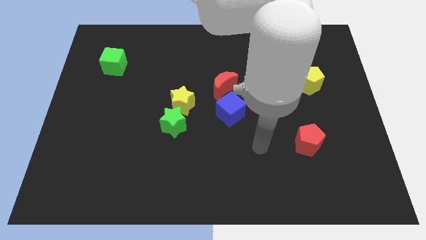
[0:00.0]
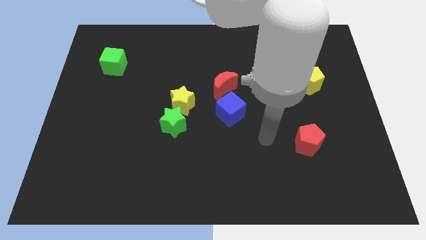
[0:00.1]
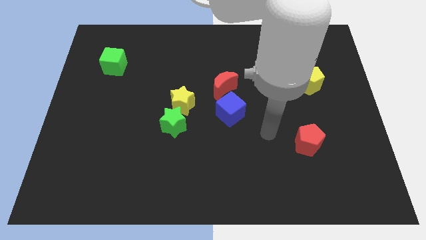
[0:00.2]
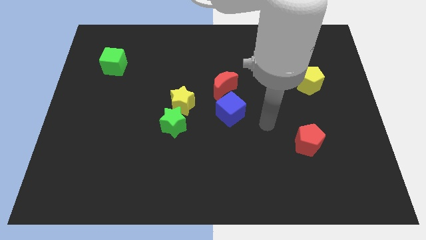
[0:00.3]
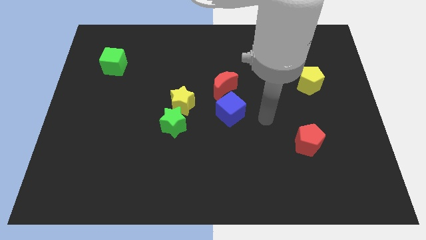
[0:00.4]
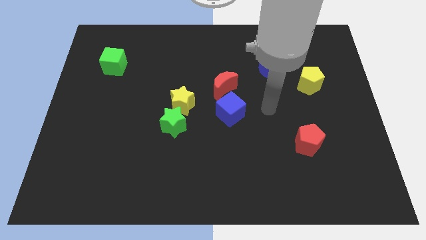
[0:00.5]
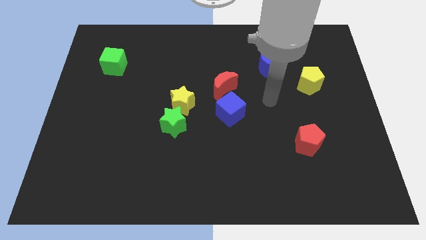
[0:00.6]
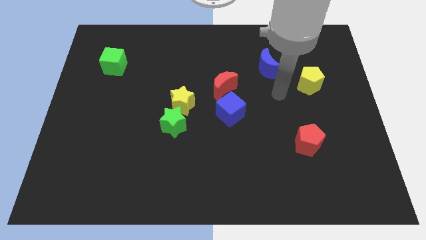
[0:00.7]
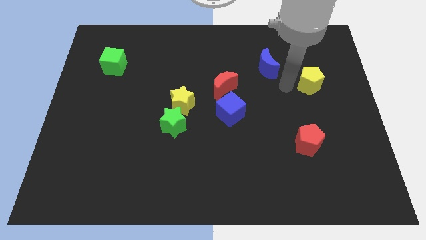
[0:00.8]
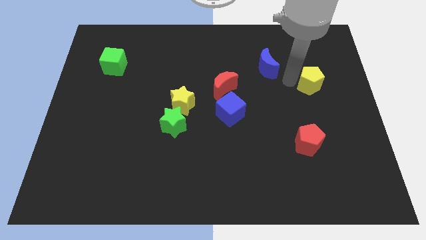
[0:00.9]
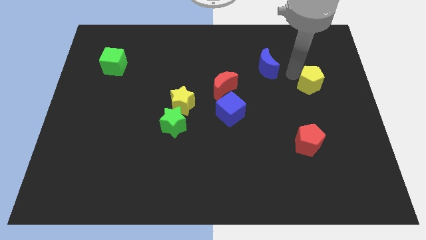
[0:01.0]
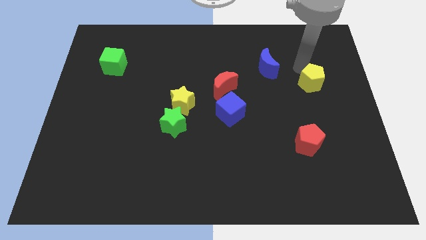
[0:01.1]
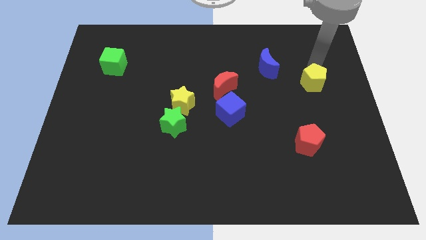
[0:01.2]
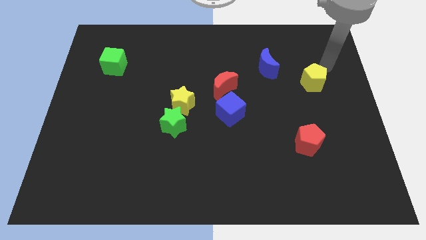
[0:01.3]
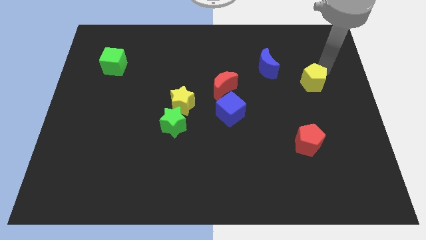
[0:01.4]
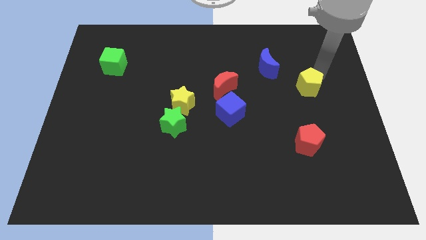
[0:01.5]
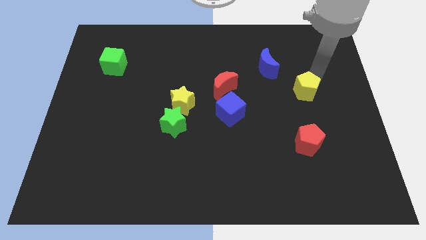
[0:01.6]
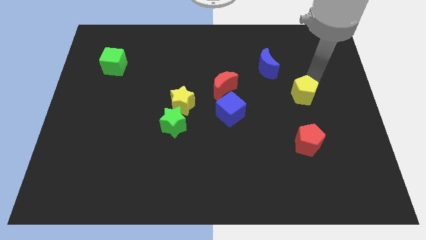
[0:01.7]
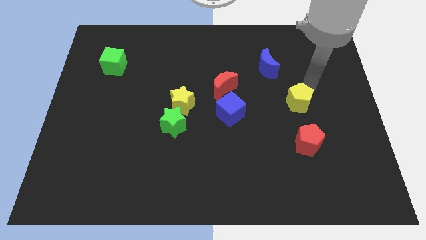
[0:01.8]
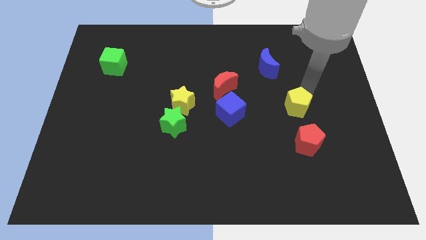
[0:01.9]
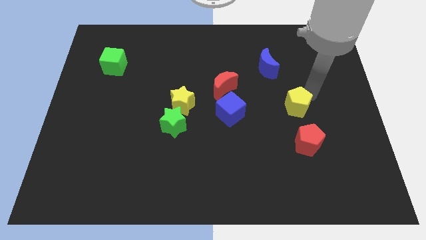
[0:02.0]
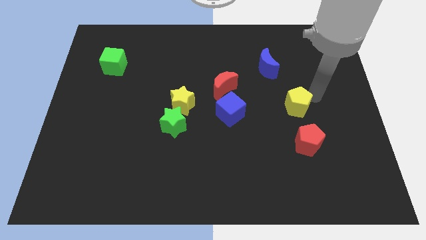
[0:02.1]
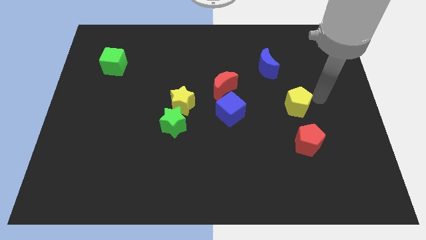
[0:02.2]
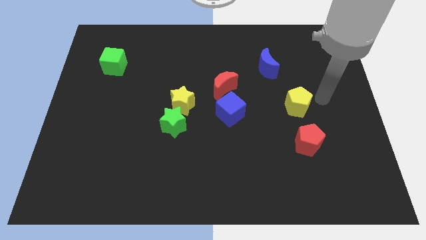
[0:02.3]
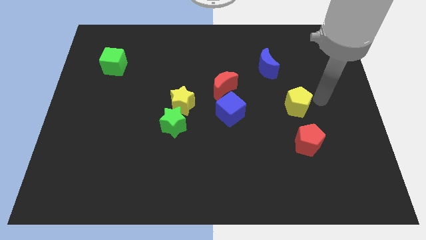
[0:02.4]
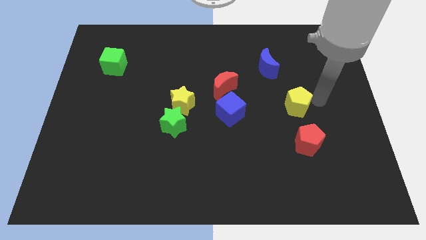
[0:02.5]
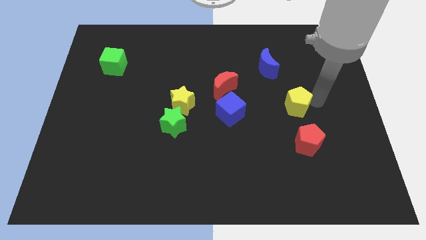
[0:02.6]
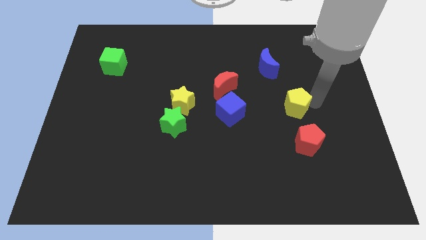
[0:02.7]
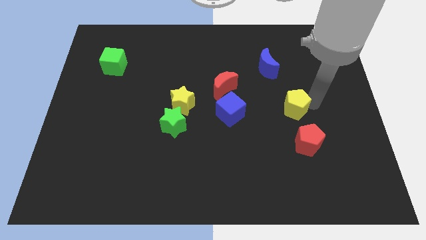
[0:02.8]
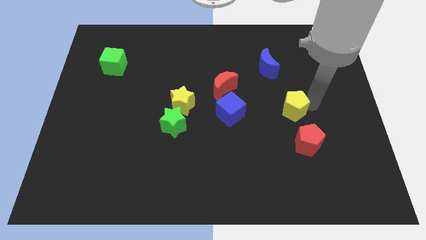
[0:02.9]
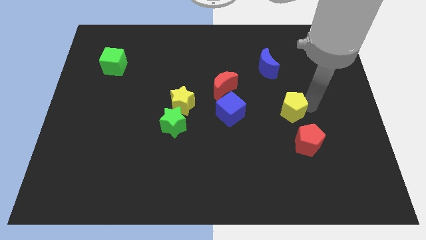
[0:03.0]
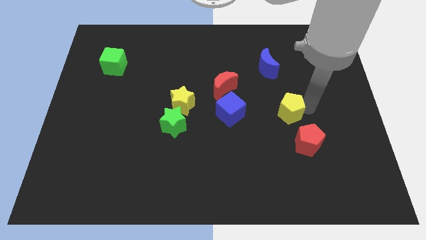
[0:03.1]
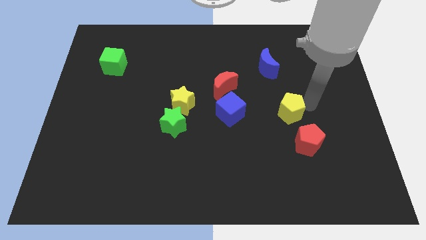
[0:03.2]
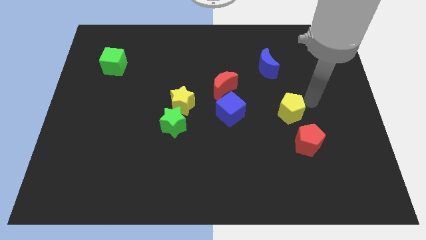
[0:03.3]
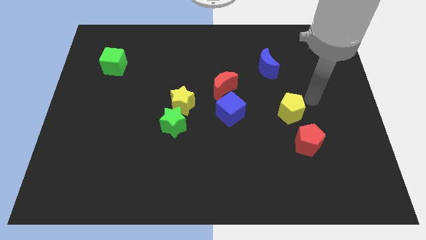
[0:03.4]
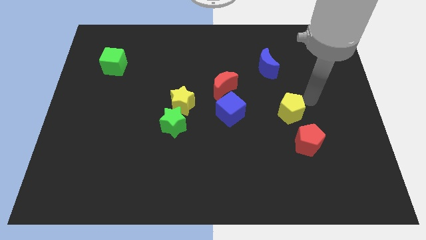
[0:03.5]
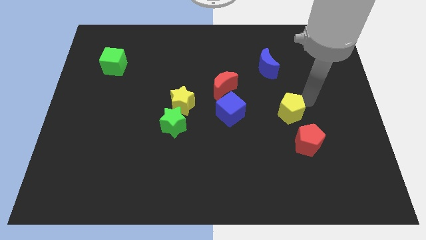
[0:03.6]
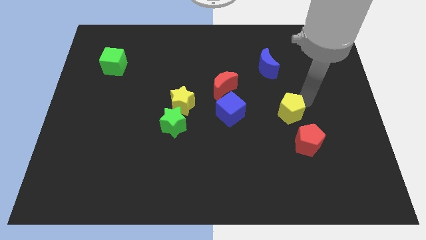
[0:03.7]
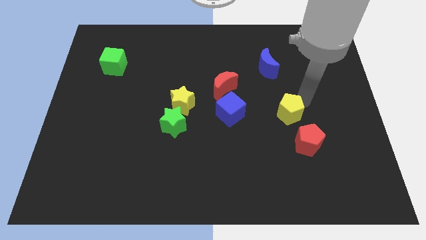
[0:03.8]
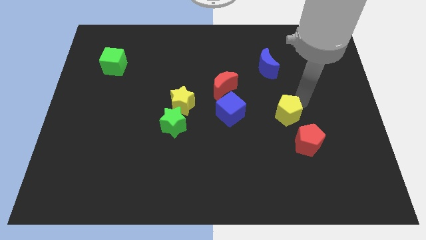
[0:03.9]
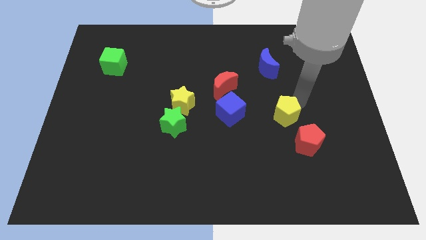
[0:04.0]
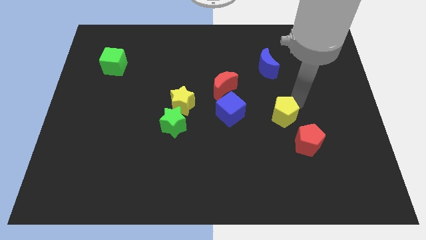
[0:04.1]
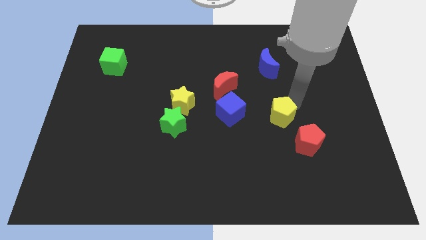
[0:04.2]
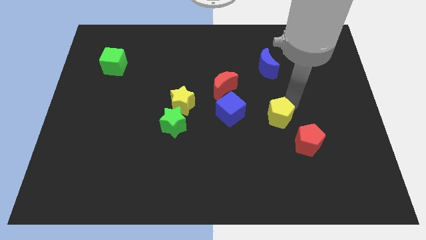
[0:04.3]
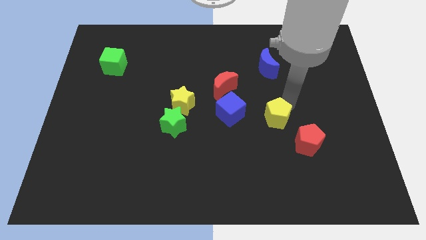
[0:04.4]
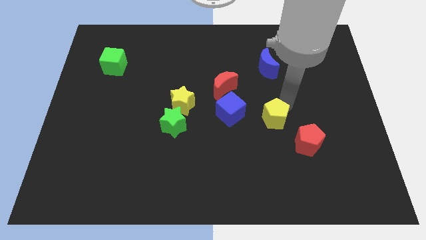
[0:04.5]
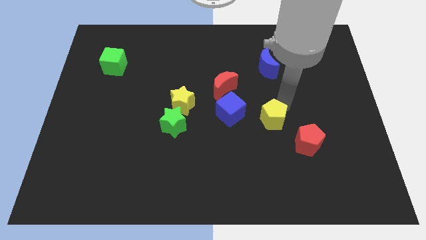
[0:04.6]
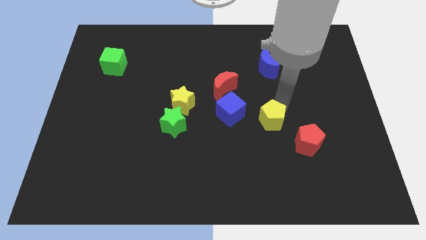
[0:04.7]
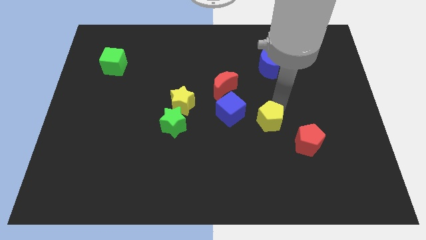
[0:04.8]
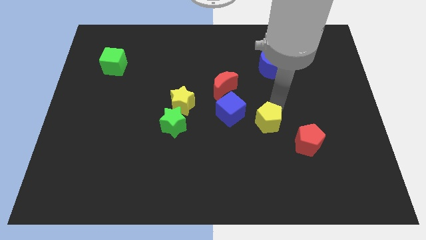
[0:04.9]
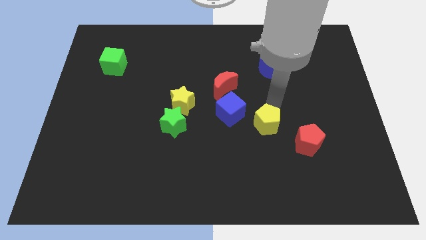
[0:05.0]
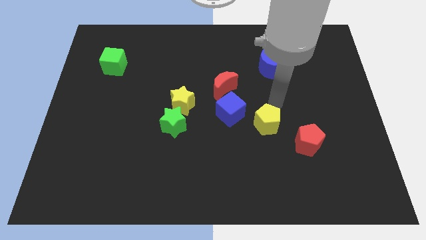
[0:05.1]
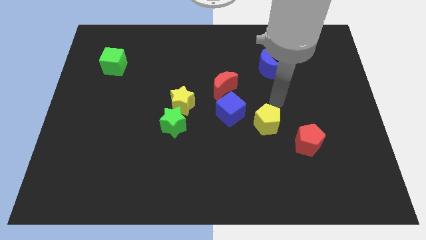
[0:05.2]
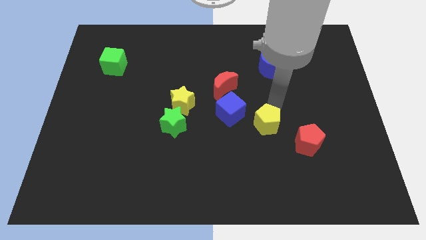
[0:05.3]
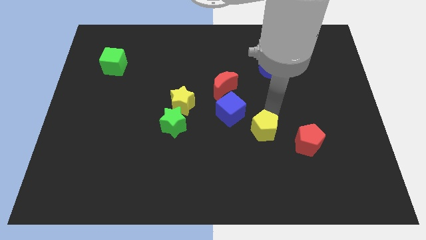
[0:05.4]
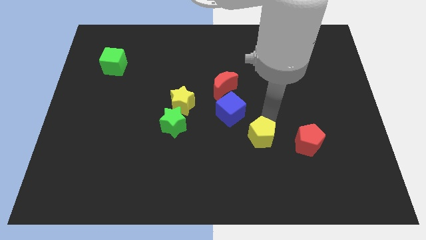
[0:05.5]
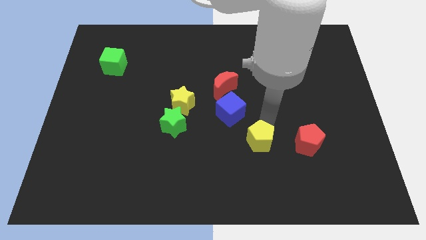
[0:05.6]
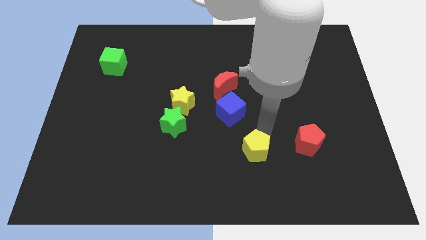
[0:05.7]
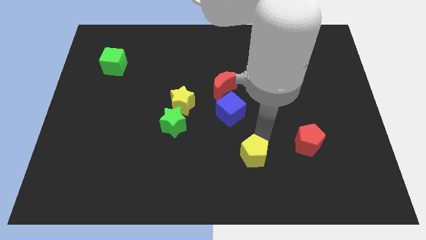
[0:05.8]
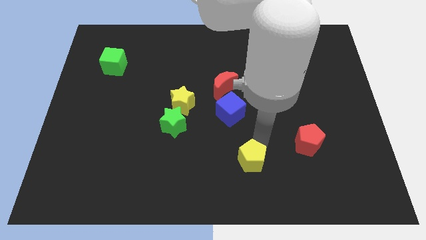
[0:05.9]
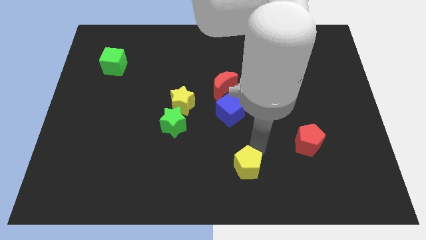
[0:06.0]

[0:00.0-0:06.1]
push the yellow pentagon to the bottom

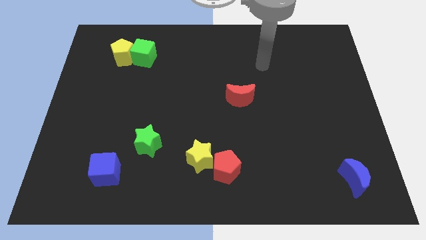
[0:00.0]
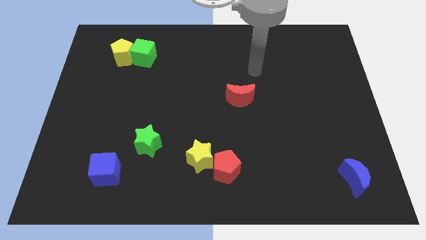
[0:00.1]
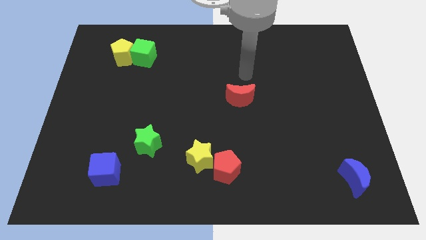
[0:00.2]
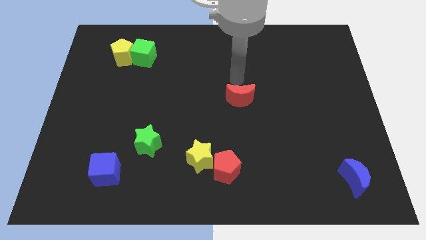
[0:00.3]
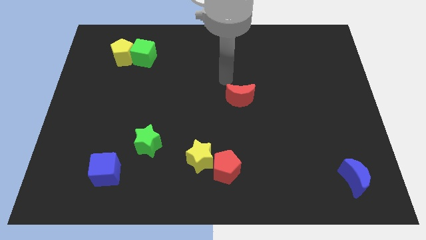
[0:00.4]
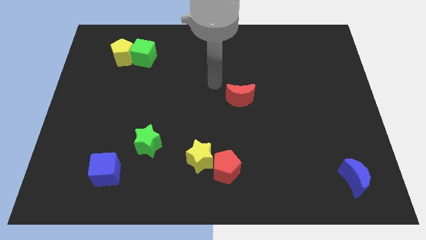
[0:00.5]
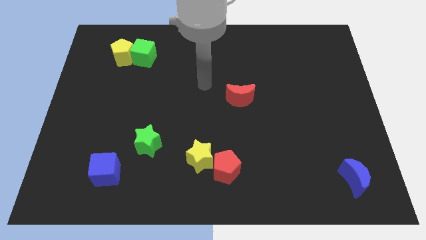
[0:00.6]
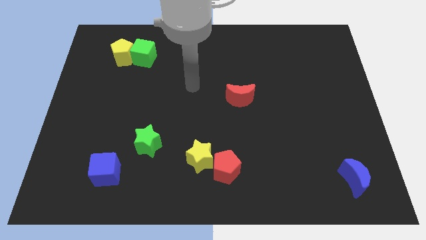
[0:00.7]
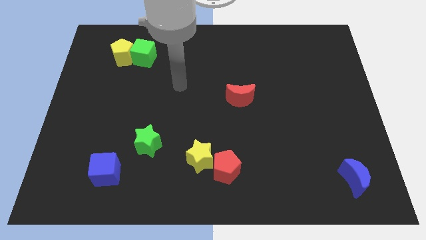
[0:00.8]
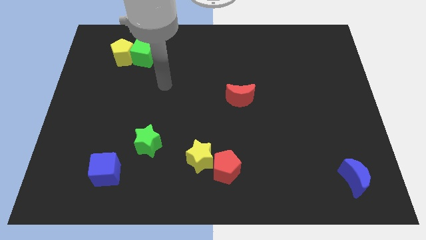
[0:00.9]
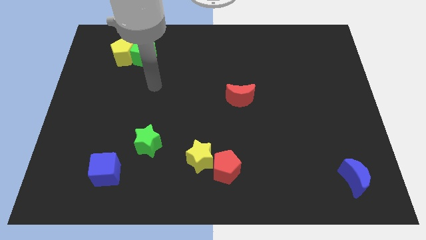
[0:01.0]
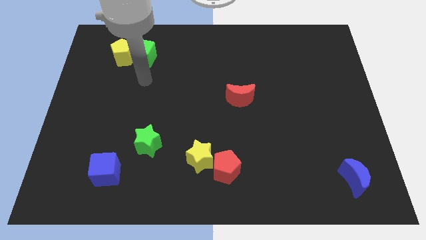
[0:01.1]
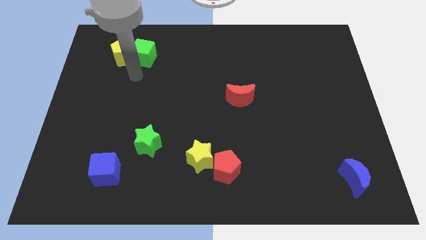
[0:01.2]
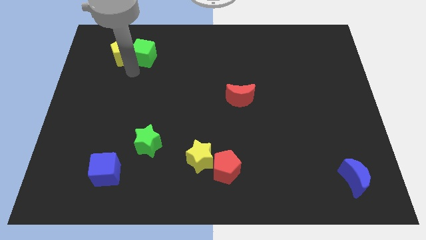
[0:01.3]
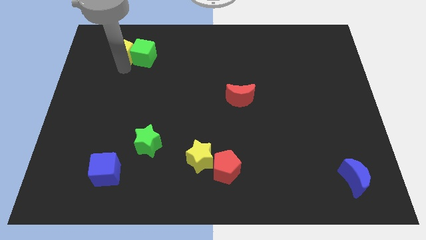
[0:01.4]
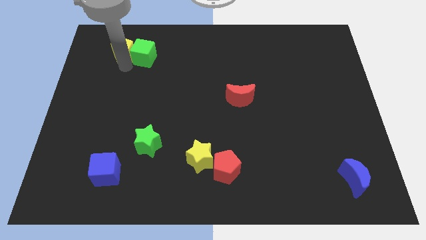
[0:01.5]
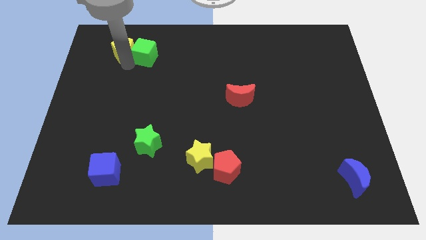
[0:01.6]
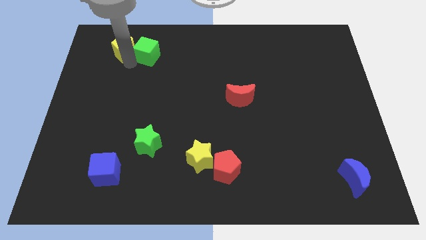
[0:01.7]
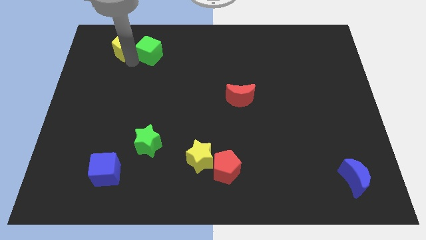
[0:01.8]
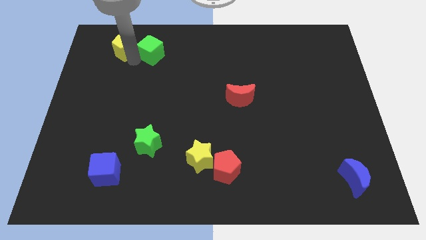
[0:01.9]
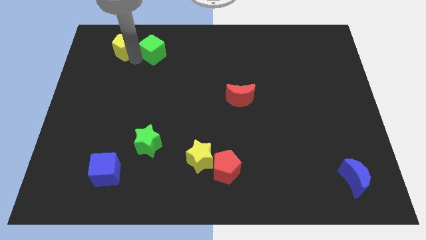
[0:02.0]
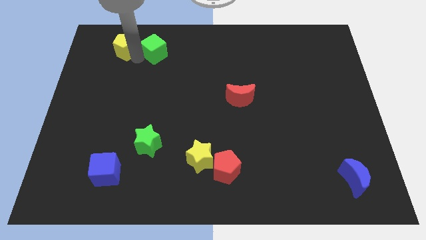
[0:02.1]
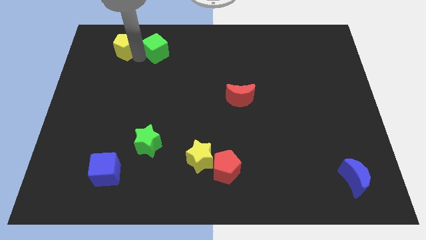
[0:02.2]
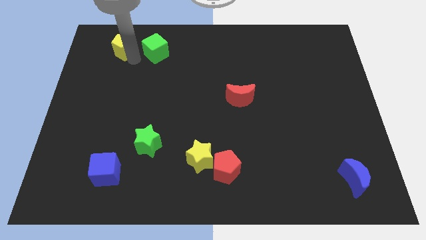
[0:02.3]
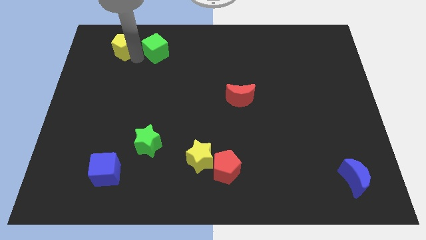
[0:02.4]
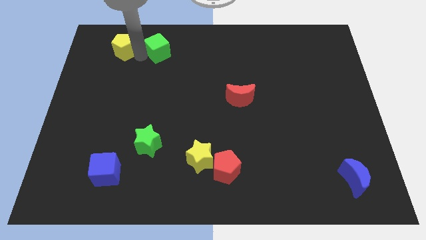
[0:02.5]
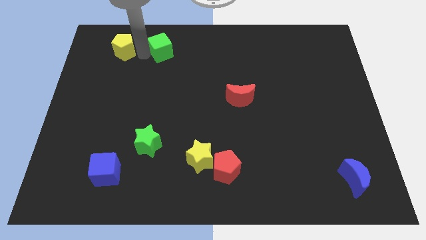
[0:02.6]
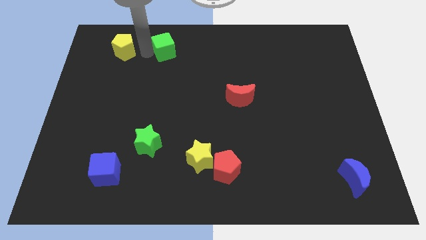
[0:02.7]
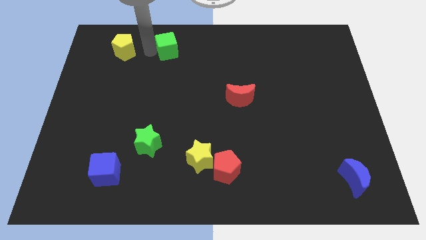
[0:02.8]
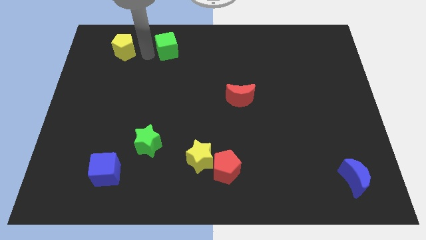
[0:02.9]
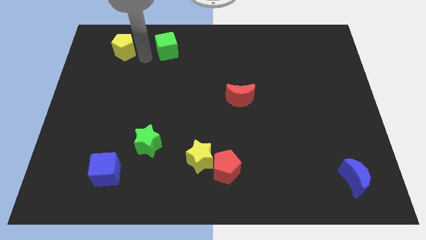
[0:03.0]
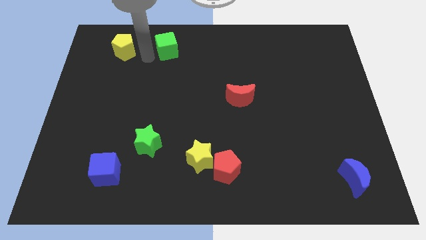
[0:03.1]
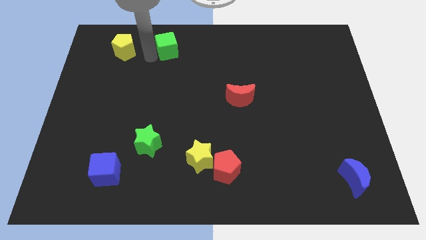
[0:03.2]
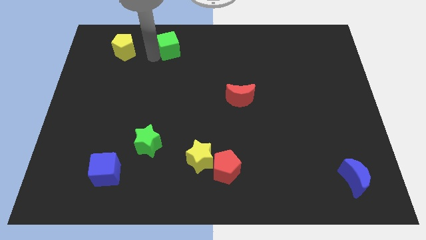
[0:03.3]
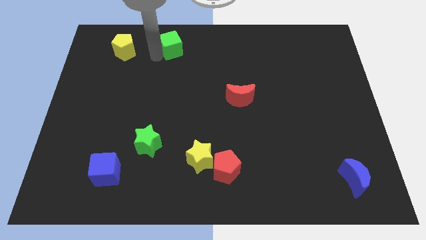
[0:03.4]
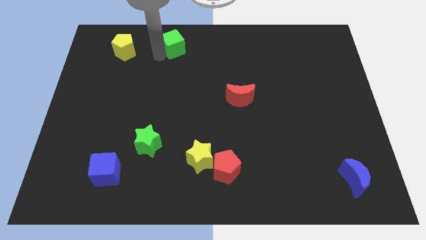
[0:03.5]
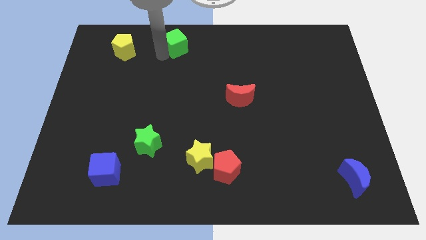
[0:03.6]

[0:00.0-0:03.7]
slide the green cube to the towards your base
